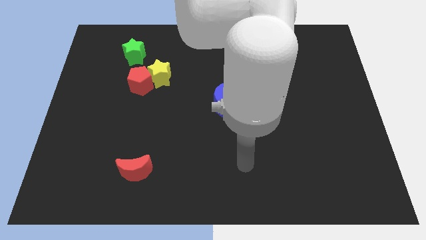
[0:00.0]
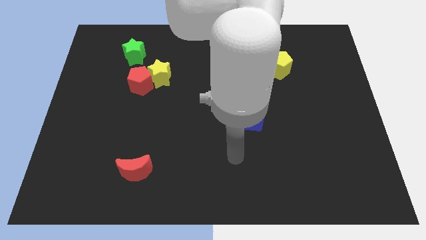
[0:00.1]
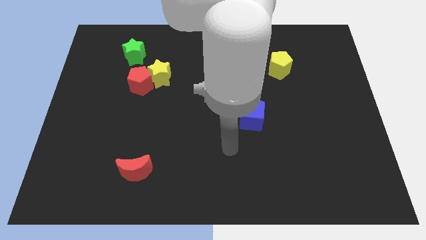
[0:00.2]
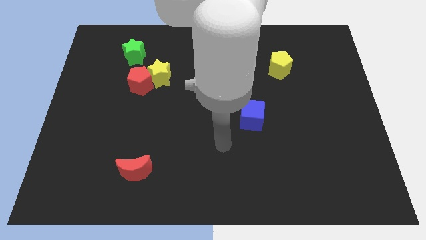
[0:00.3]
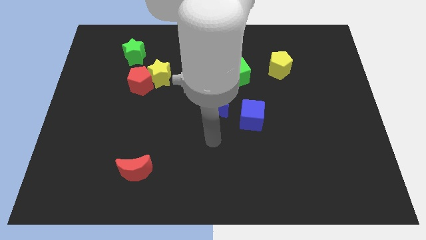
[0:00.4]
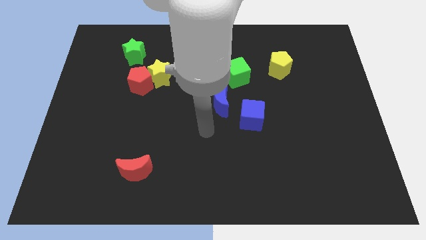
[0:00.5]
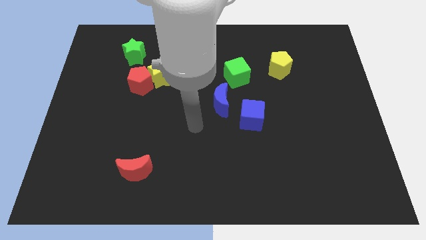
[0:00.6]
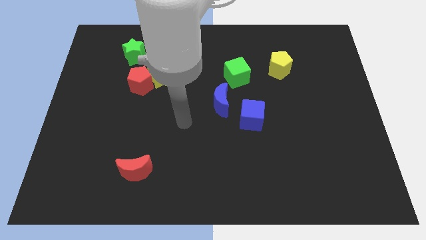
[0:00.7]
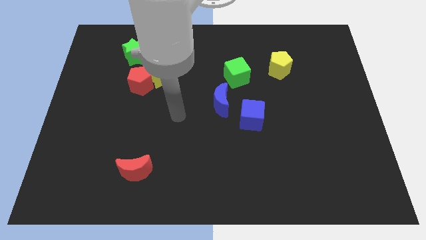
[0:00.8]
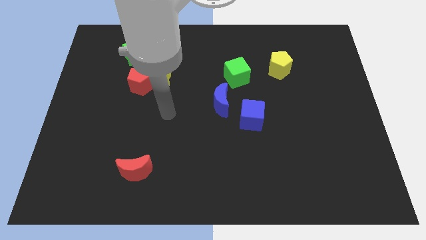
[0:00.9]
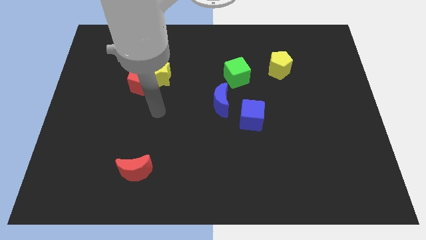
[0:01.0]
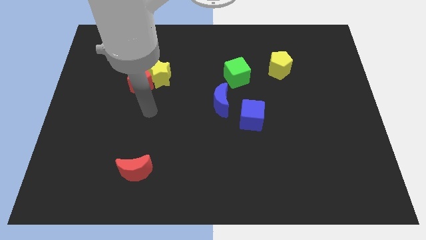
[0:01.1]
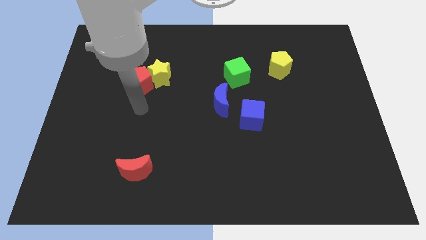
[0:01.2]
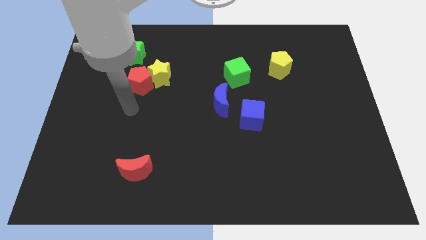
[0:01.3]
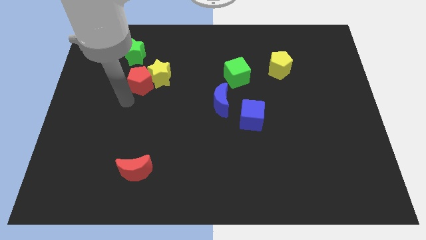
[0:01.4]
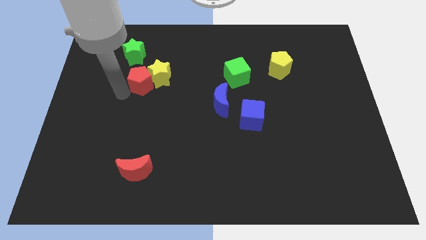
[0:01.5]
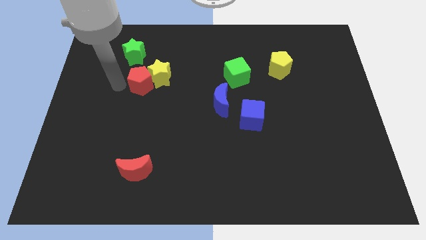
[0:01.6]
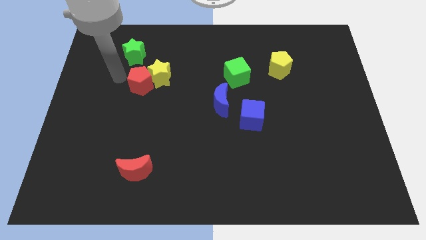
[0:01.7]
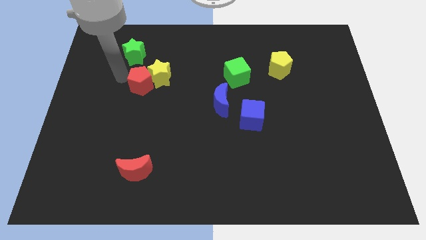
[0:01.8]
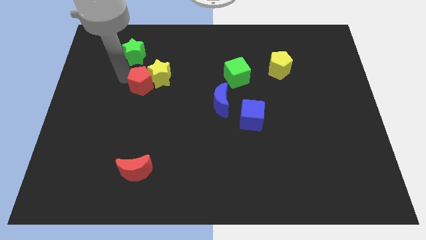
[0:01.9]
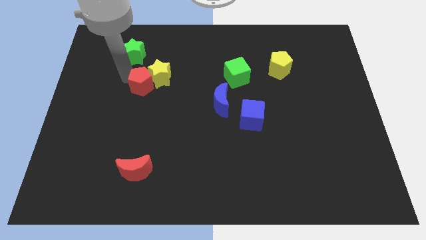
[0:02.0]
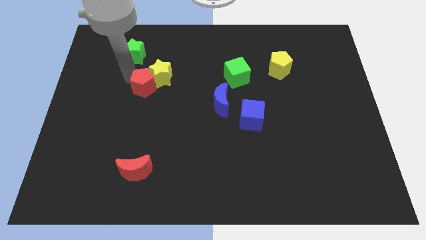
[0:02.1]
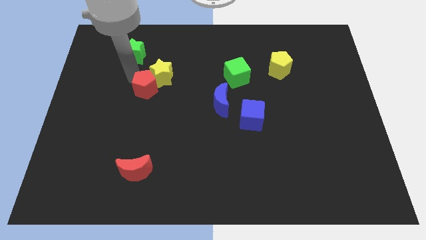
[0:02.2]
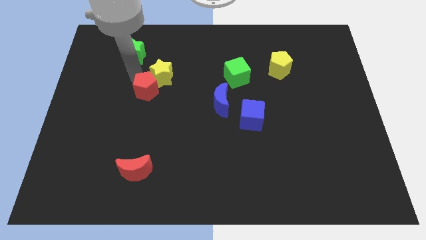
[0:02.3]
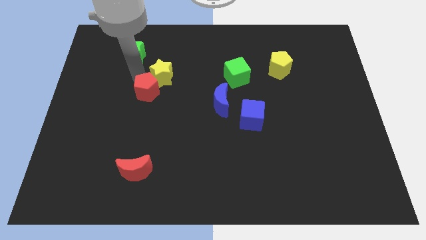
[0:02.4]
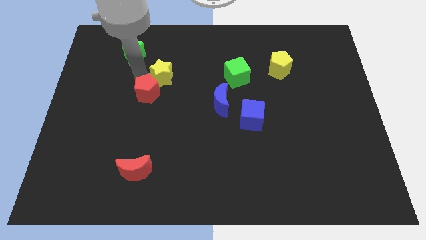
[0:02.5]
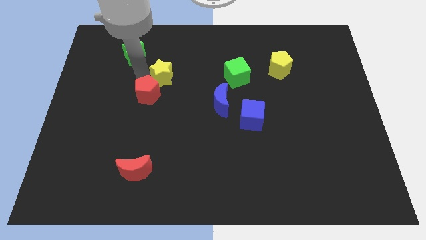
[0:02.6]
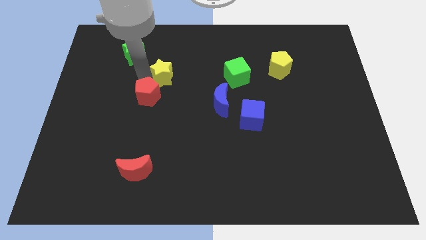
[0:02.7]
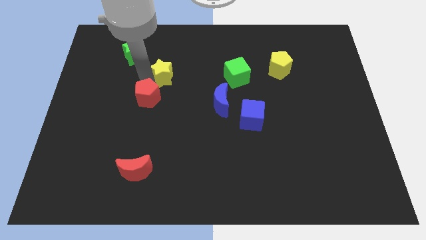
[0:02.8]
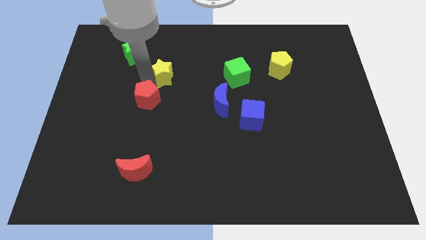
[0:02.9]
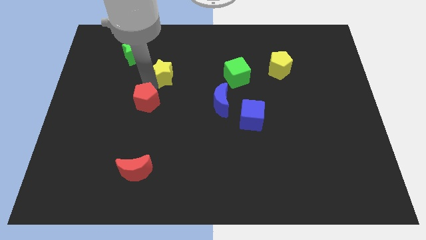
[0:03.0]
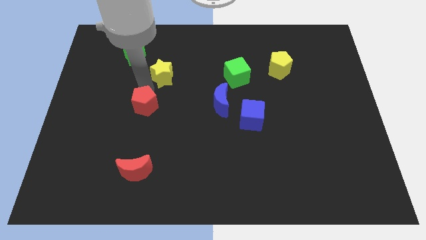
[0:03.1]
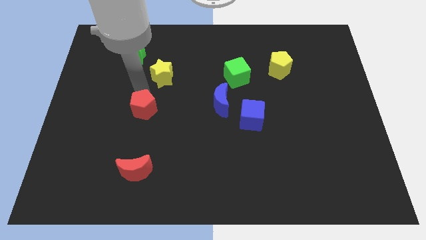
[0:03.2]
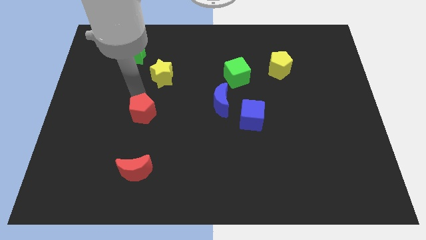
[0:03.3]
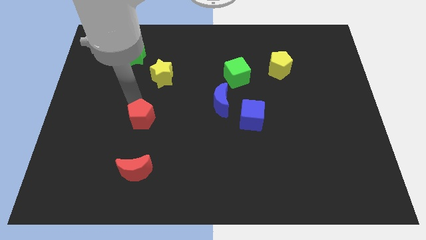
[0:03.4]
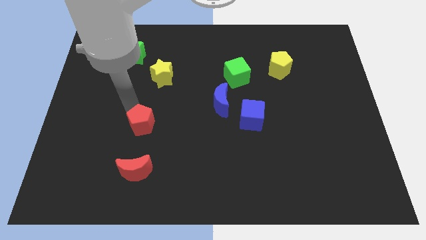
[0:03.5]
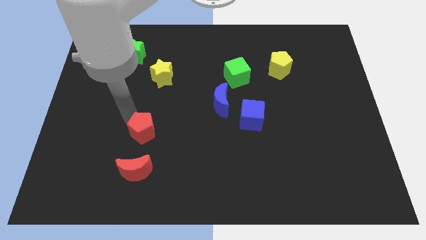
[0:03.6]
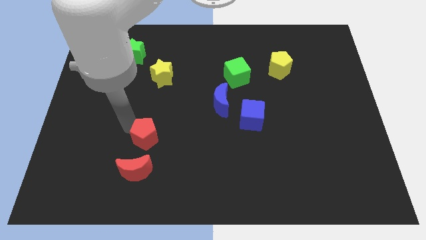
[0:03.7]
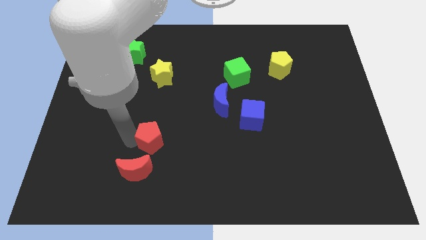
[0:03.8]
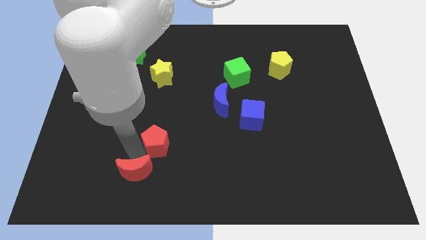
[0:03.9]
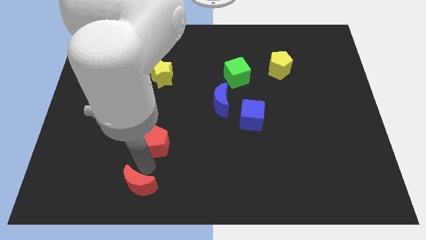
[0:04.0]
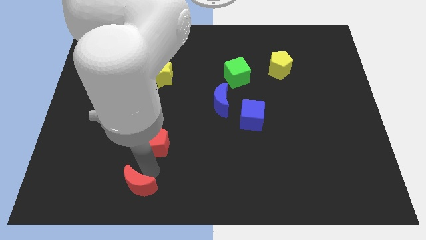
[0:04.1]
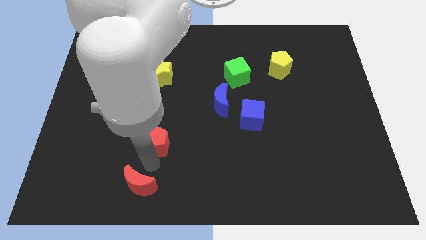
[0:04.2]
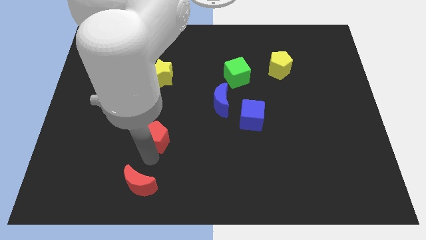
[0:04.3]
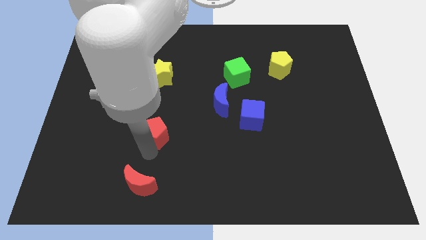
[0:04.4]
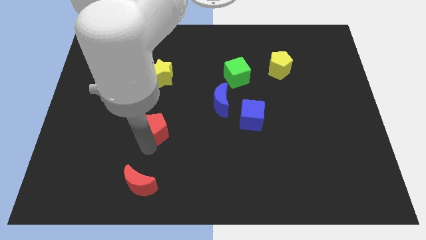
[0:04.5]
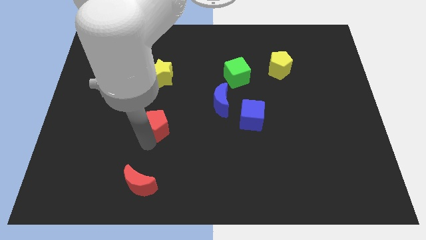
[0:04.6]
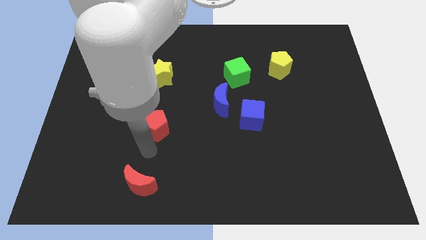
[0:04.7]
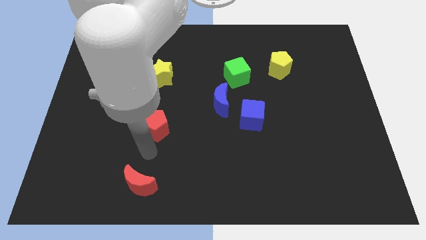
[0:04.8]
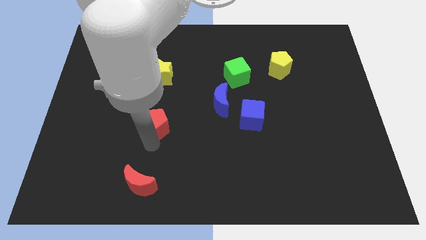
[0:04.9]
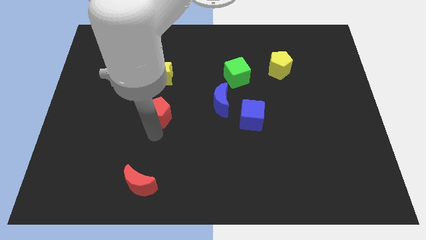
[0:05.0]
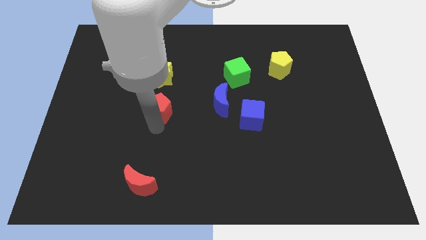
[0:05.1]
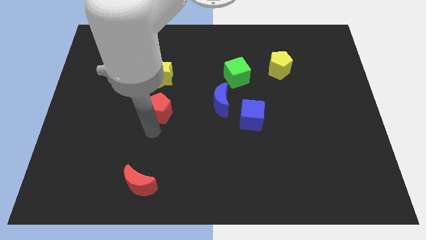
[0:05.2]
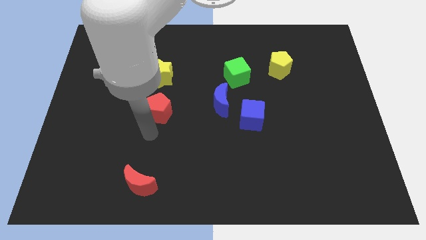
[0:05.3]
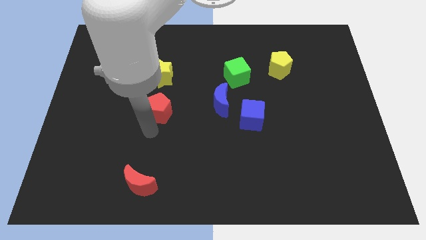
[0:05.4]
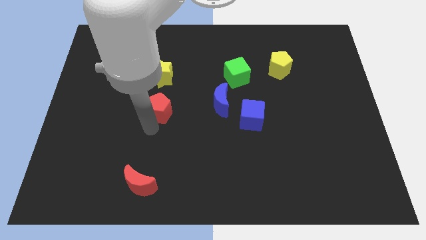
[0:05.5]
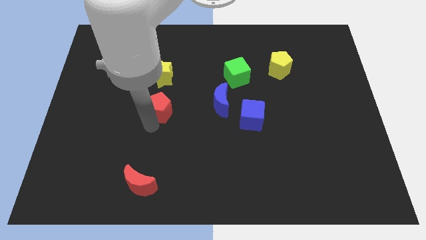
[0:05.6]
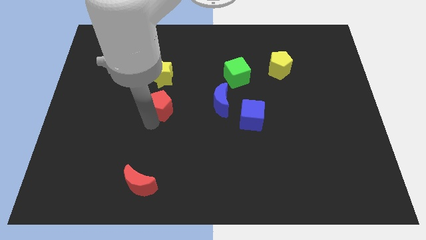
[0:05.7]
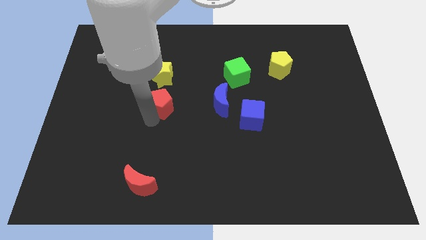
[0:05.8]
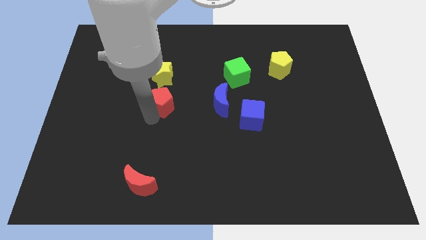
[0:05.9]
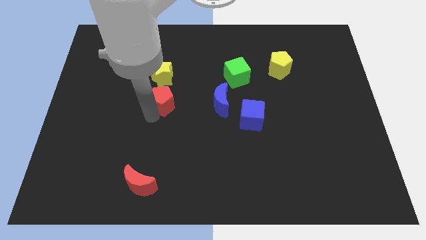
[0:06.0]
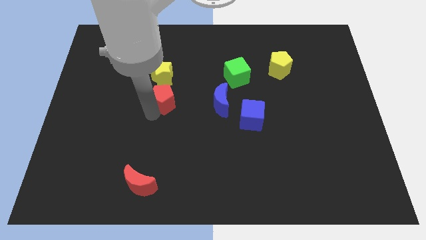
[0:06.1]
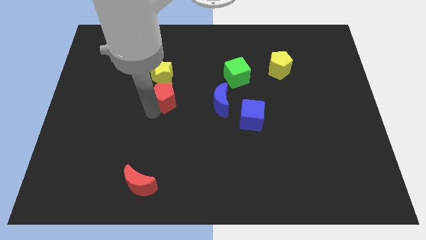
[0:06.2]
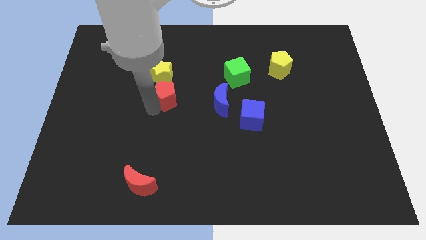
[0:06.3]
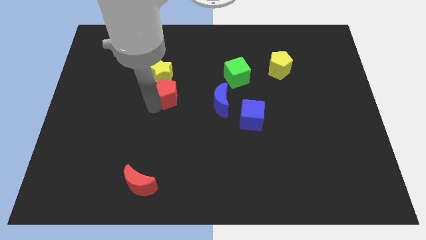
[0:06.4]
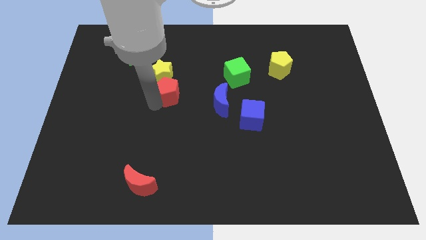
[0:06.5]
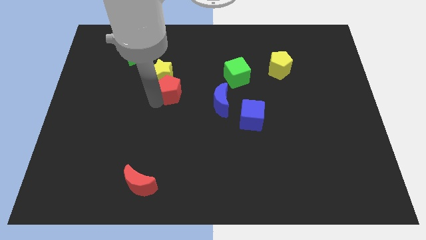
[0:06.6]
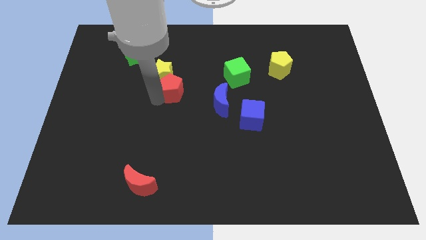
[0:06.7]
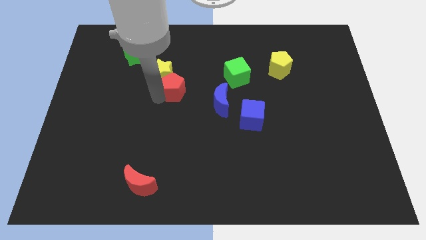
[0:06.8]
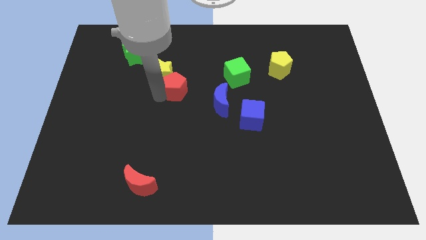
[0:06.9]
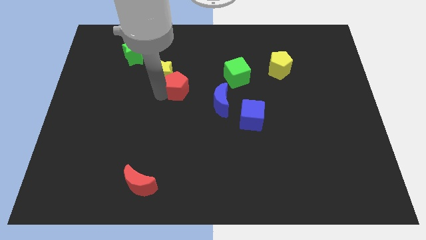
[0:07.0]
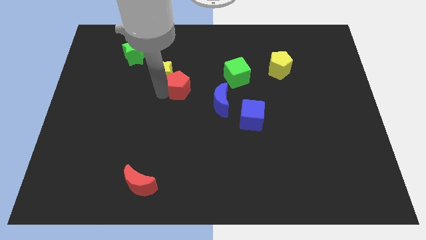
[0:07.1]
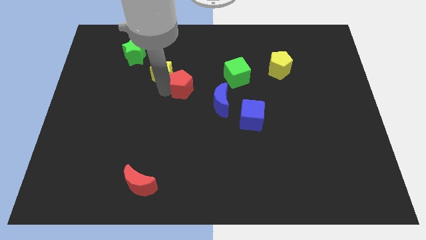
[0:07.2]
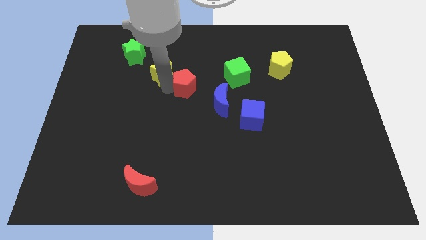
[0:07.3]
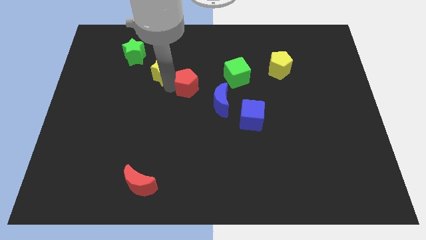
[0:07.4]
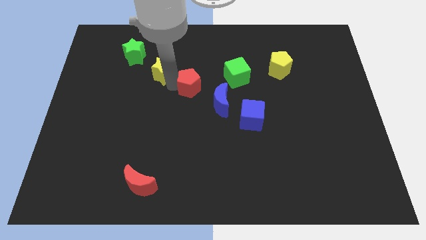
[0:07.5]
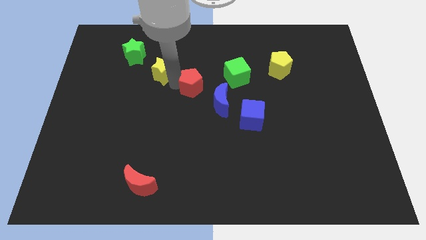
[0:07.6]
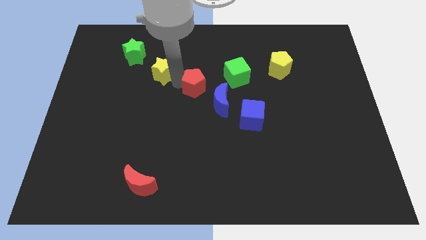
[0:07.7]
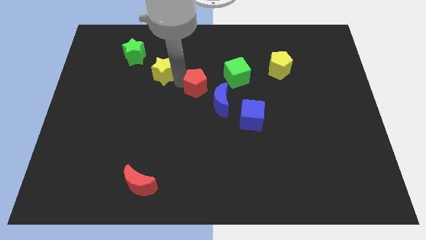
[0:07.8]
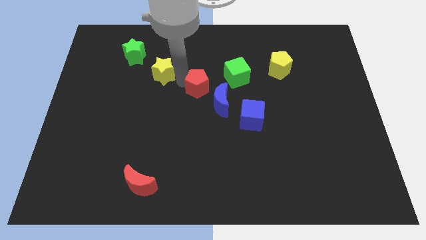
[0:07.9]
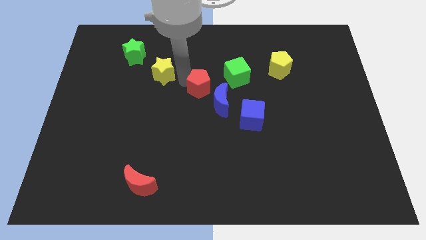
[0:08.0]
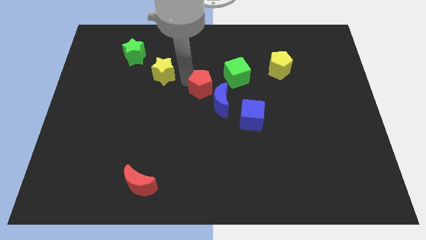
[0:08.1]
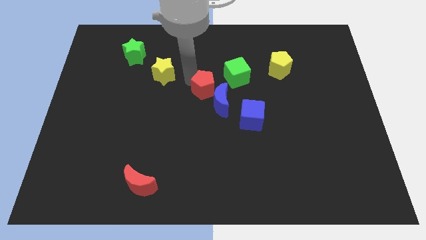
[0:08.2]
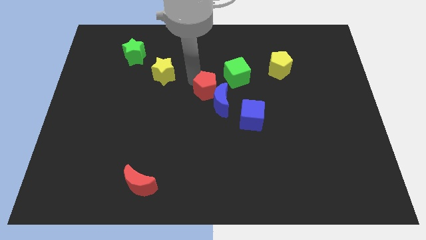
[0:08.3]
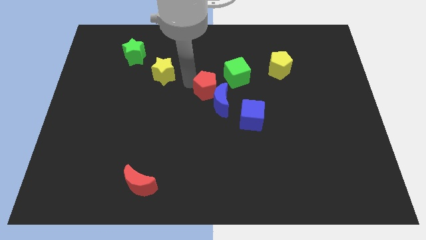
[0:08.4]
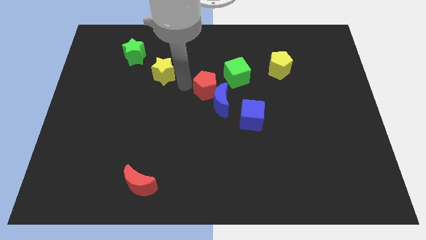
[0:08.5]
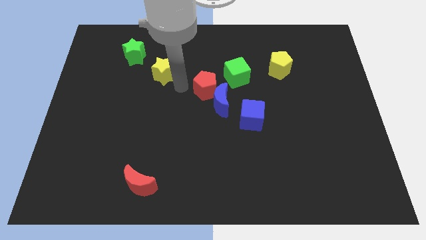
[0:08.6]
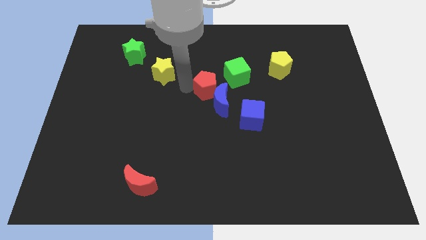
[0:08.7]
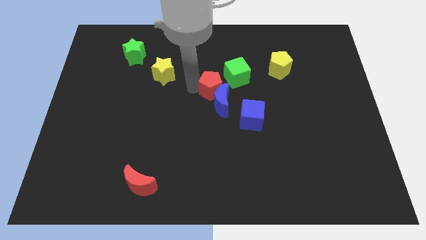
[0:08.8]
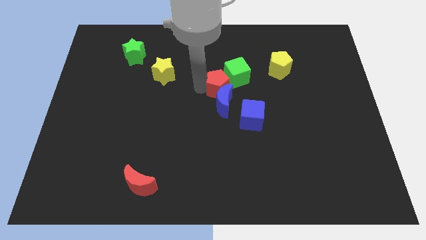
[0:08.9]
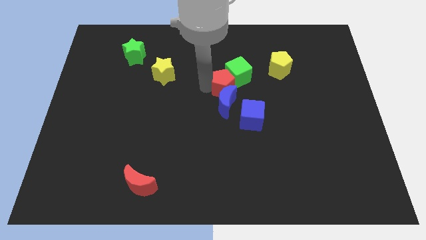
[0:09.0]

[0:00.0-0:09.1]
move the red pentagon right
